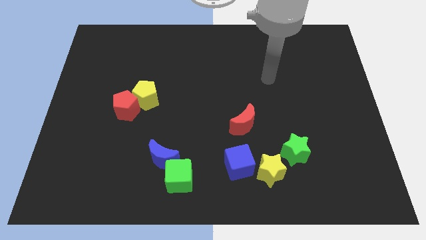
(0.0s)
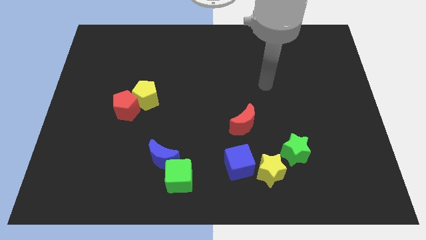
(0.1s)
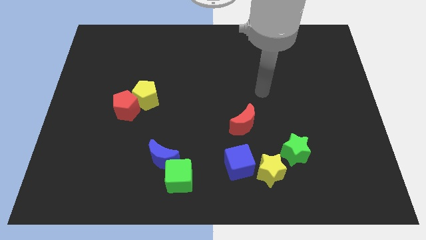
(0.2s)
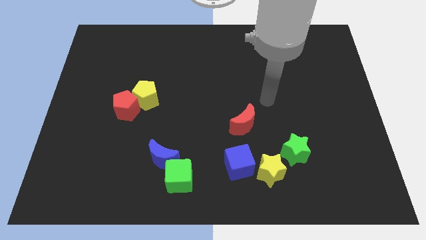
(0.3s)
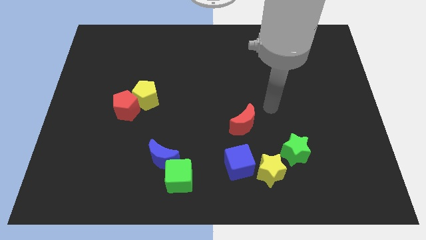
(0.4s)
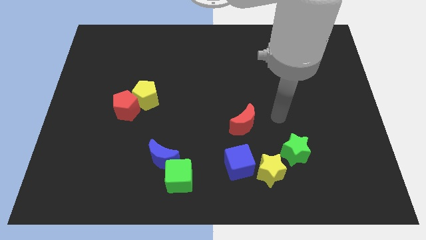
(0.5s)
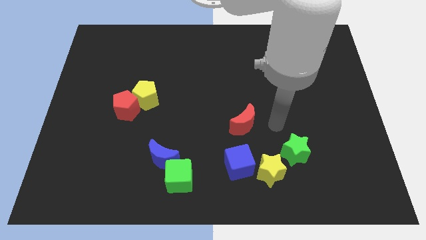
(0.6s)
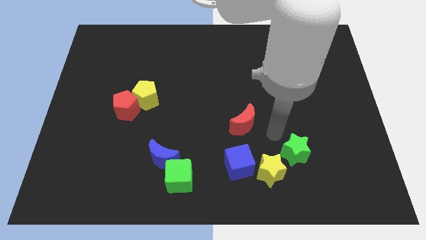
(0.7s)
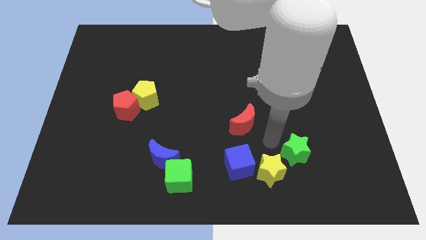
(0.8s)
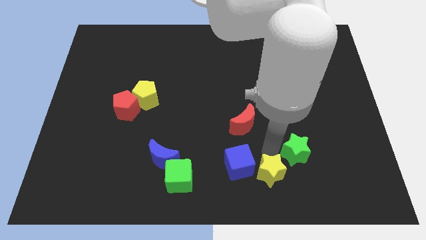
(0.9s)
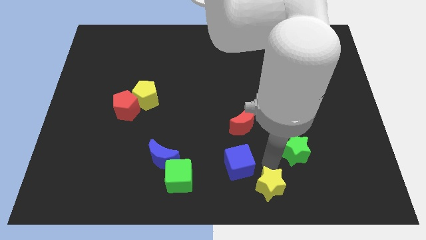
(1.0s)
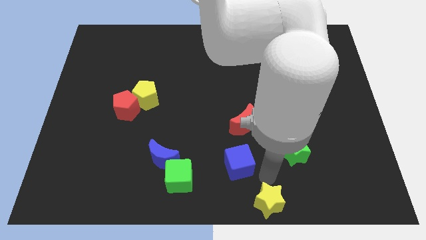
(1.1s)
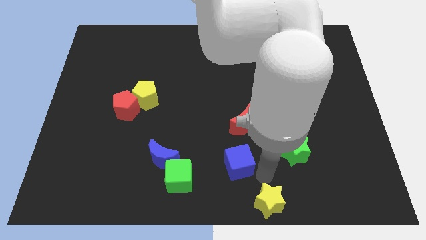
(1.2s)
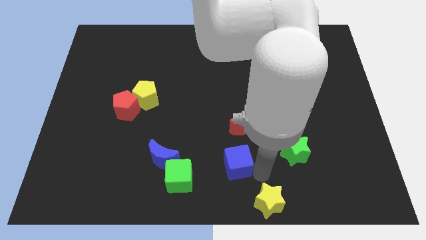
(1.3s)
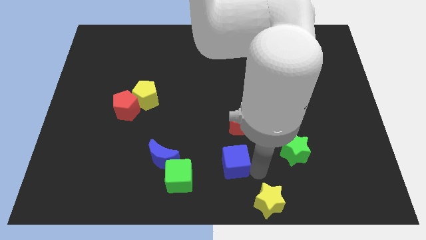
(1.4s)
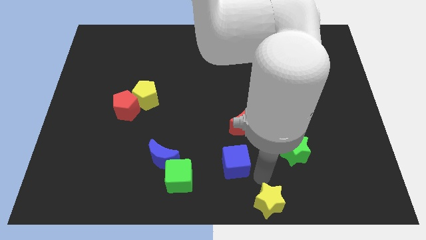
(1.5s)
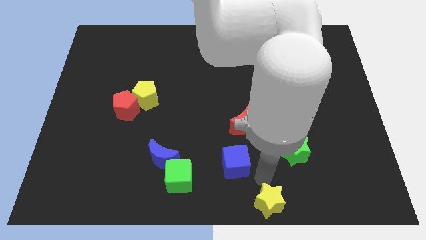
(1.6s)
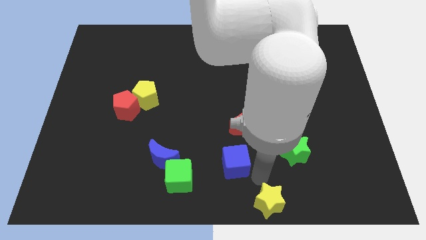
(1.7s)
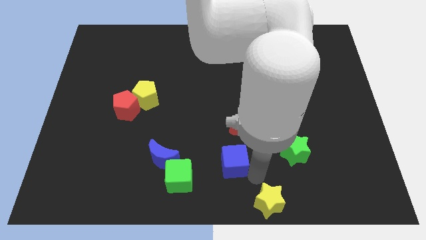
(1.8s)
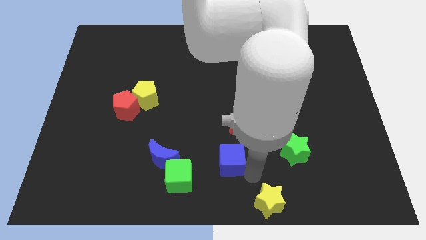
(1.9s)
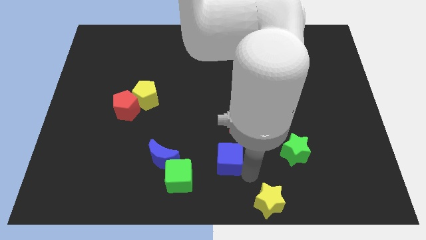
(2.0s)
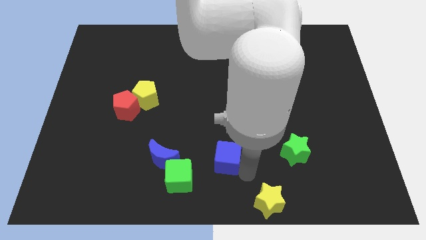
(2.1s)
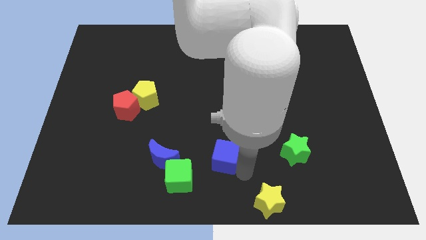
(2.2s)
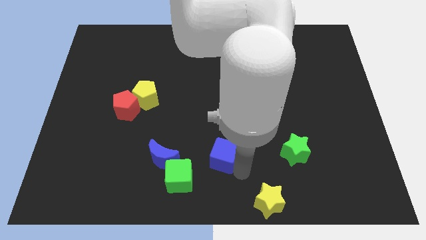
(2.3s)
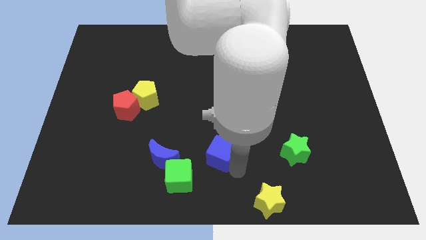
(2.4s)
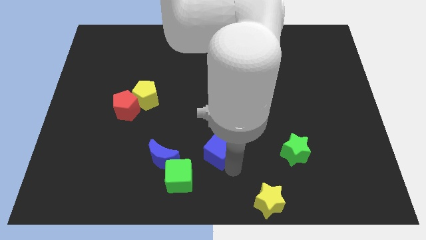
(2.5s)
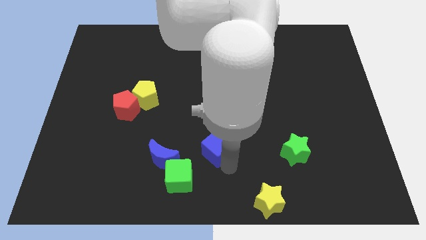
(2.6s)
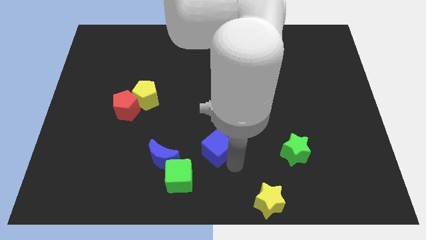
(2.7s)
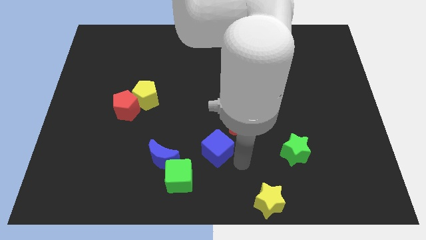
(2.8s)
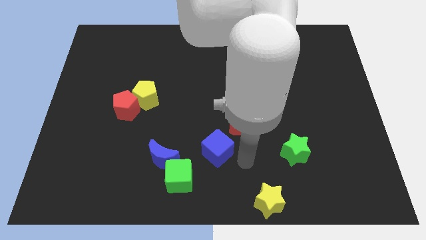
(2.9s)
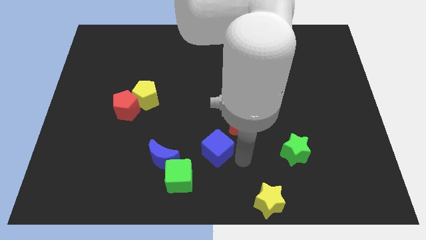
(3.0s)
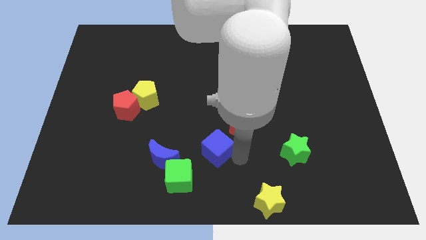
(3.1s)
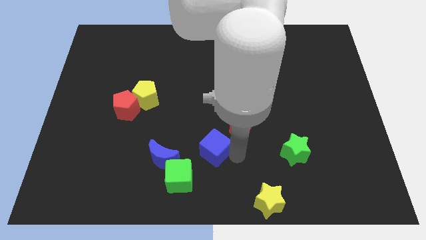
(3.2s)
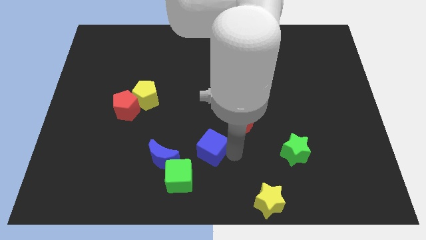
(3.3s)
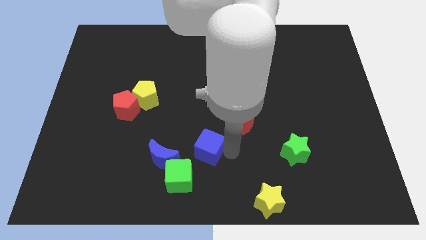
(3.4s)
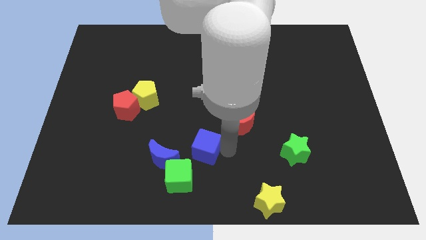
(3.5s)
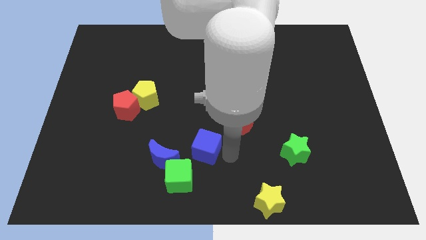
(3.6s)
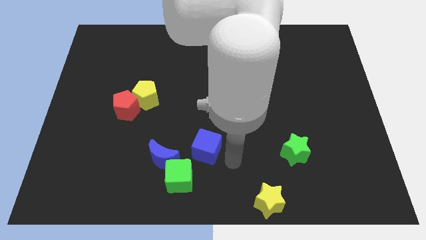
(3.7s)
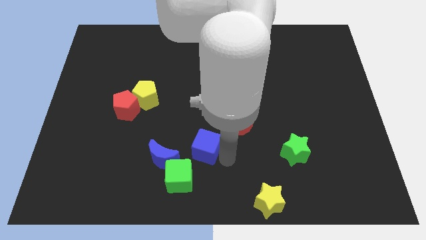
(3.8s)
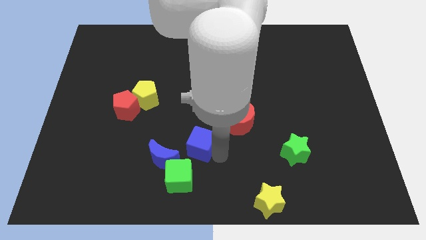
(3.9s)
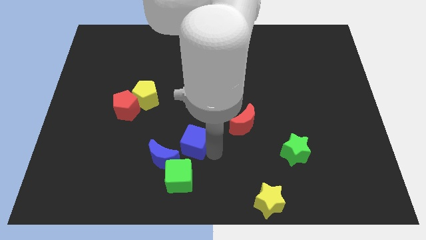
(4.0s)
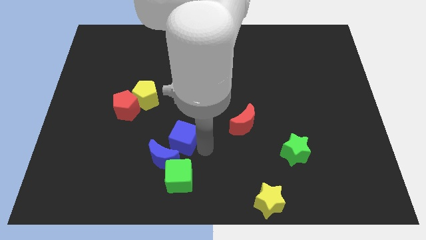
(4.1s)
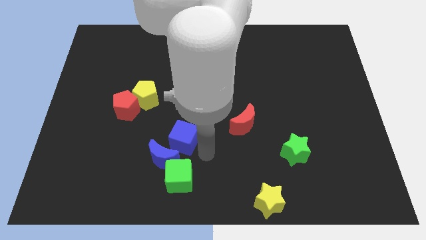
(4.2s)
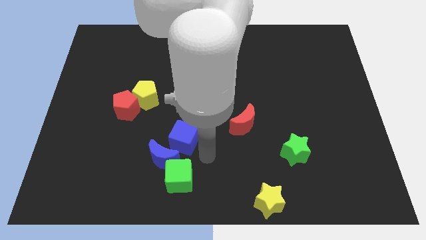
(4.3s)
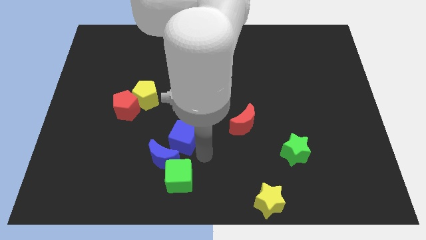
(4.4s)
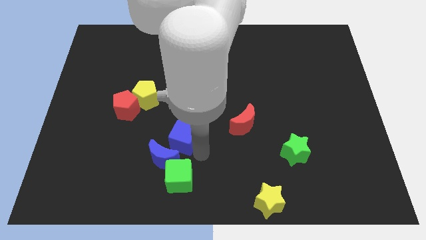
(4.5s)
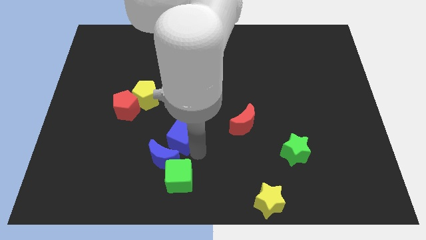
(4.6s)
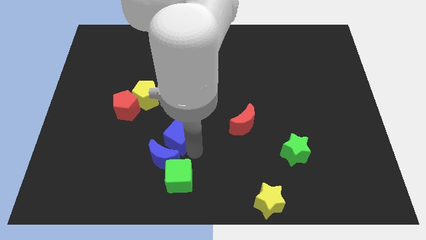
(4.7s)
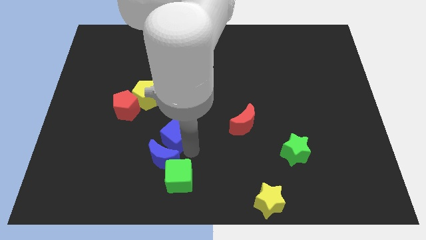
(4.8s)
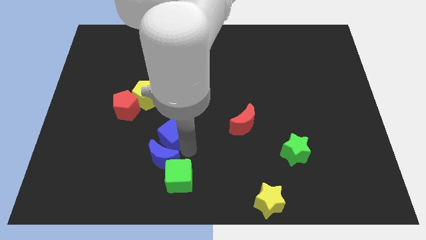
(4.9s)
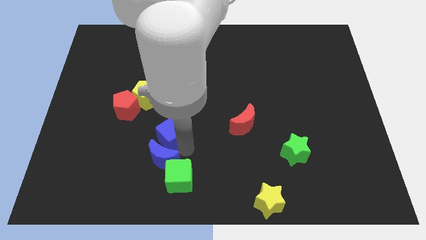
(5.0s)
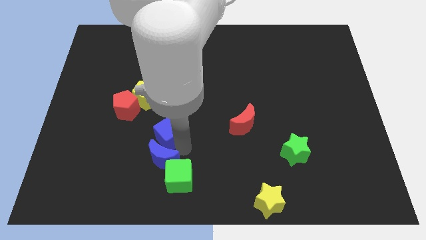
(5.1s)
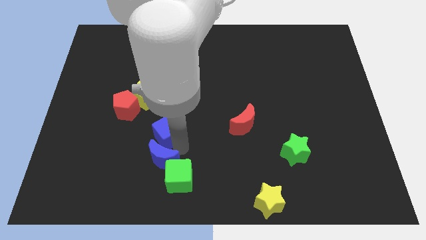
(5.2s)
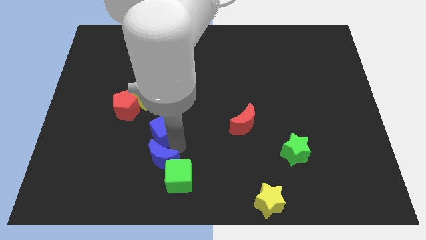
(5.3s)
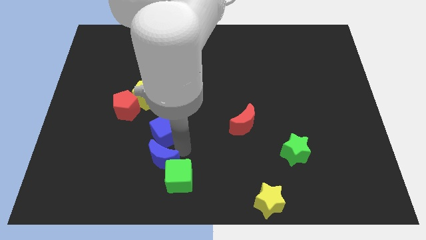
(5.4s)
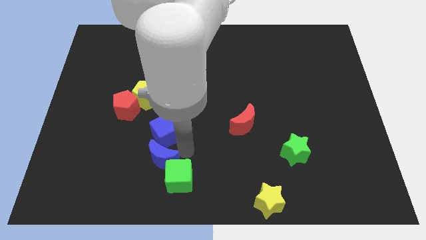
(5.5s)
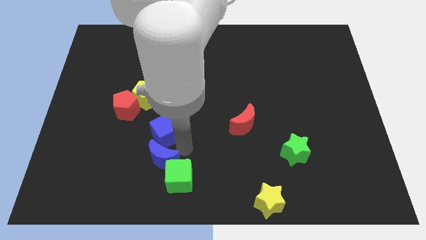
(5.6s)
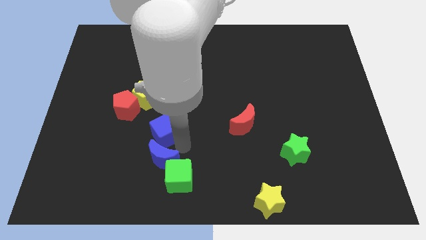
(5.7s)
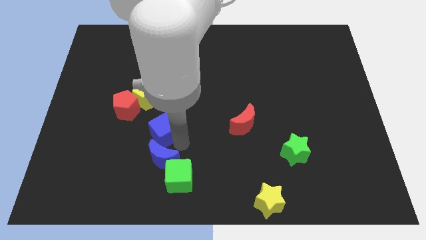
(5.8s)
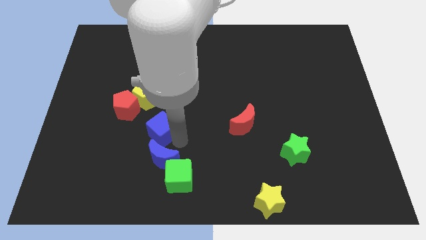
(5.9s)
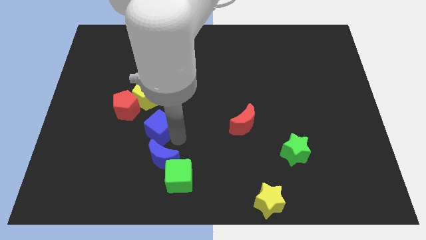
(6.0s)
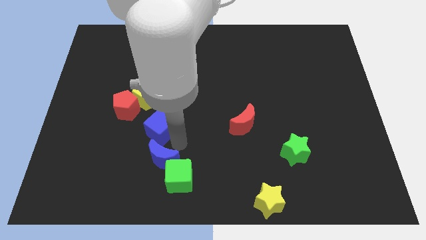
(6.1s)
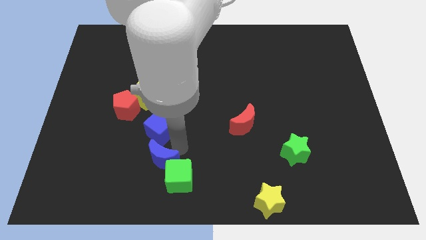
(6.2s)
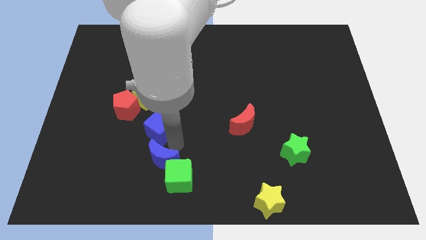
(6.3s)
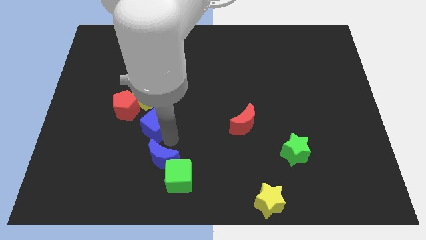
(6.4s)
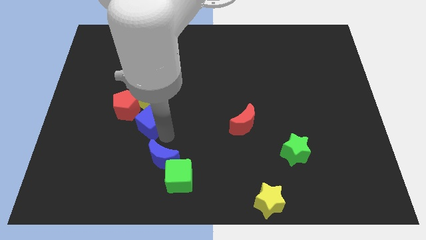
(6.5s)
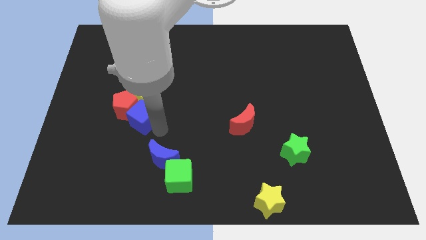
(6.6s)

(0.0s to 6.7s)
move the blue cube towards the red pentagon
